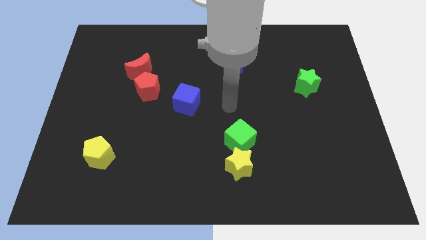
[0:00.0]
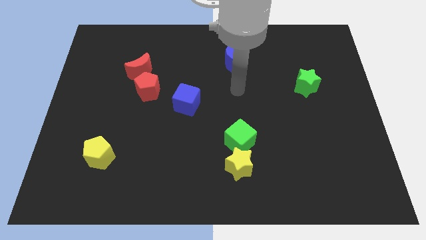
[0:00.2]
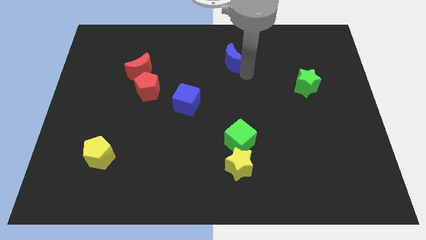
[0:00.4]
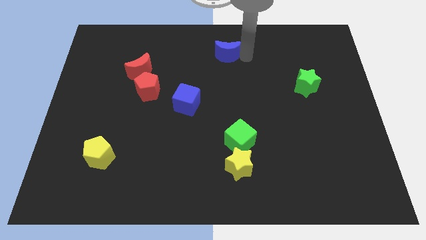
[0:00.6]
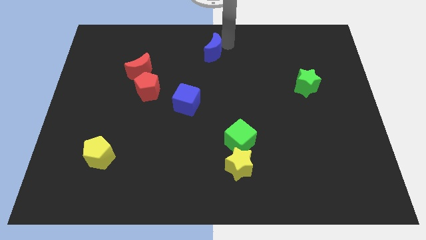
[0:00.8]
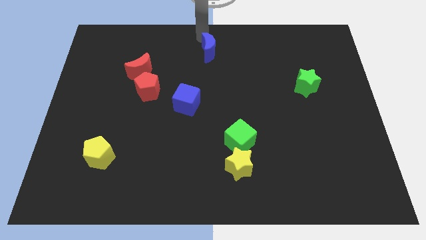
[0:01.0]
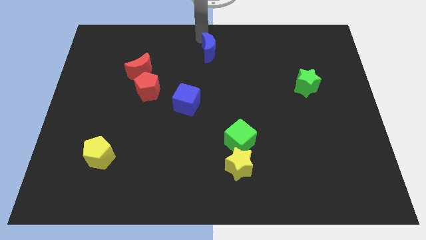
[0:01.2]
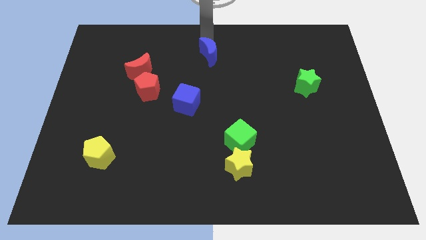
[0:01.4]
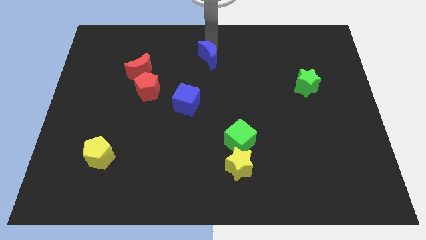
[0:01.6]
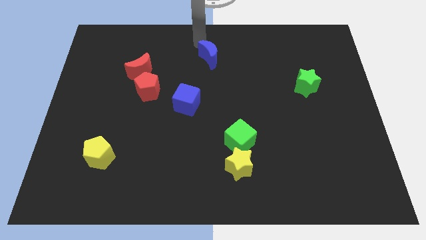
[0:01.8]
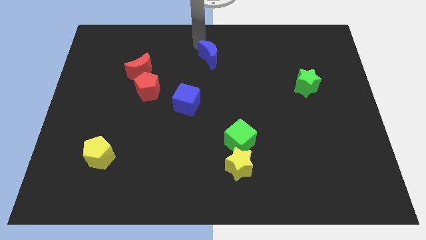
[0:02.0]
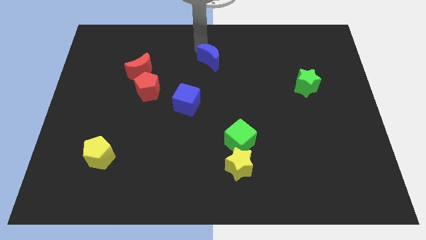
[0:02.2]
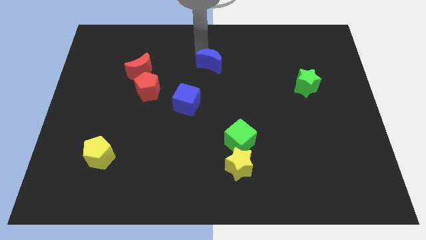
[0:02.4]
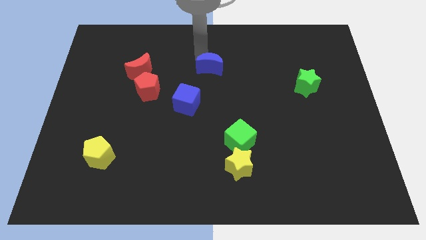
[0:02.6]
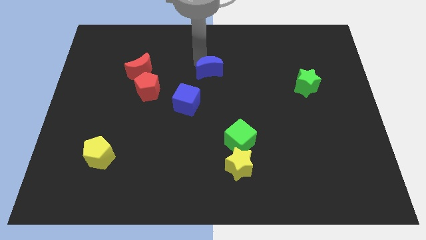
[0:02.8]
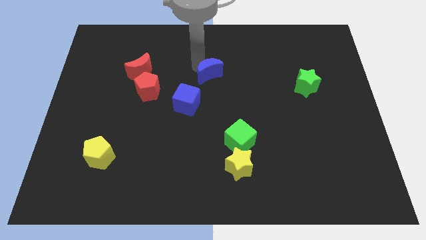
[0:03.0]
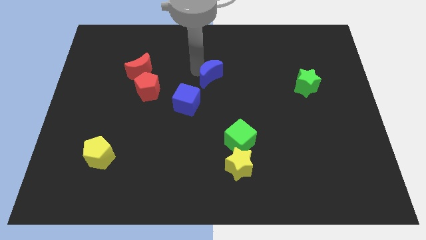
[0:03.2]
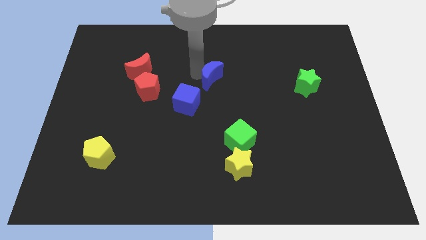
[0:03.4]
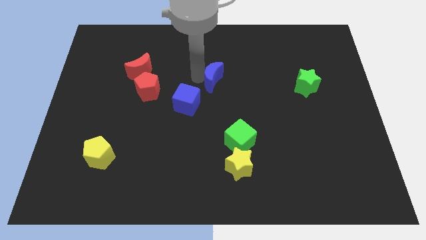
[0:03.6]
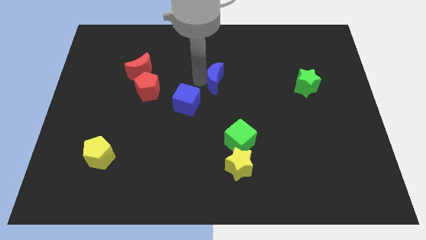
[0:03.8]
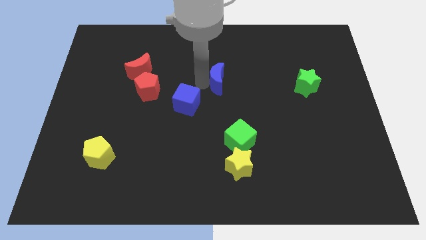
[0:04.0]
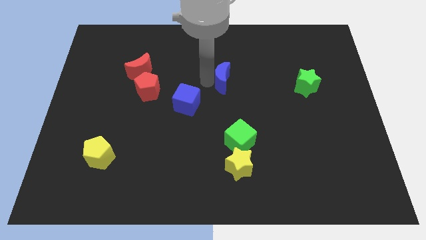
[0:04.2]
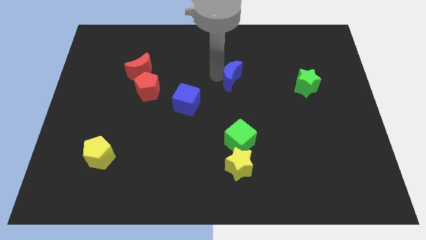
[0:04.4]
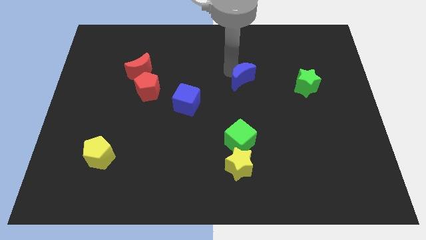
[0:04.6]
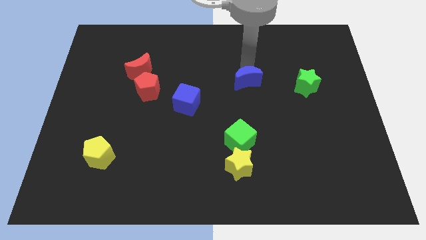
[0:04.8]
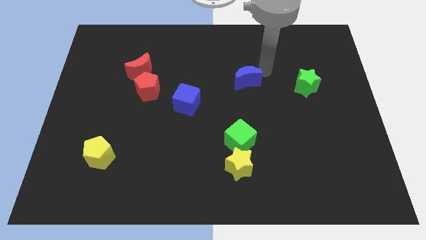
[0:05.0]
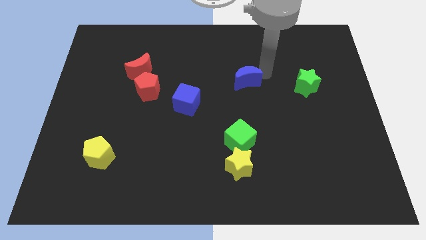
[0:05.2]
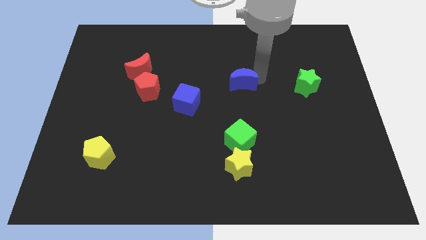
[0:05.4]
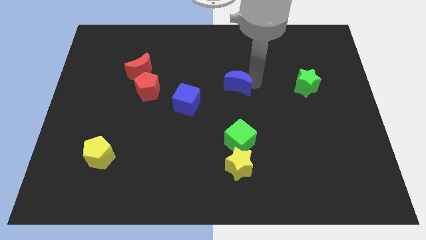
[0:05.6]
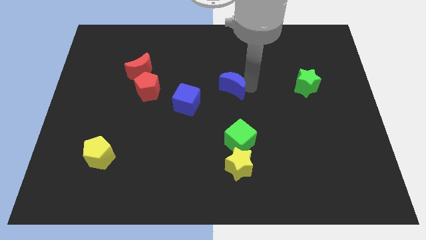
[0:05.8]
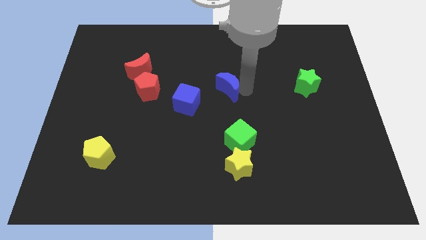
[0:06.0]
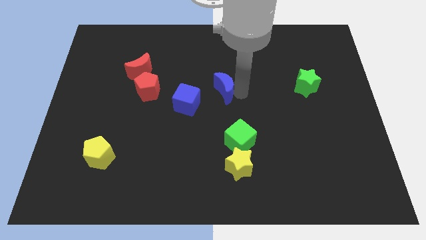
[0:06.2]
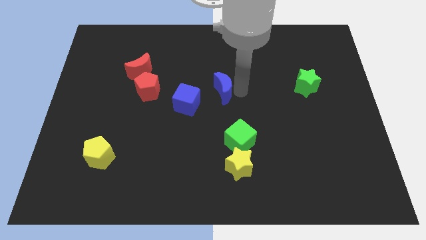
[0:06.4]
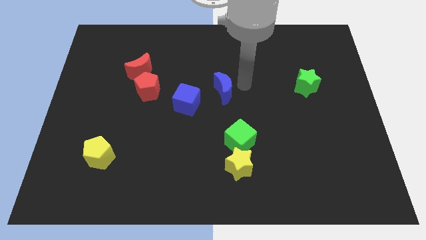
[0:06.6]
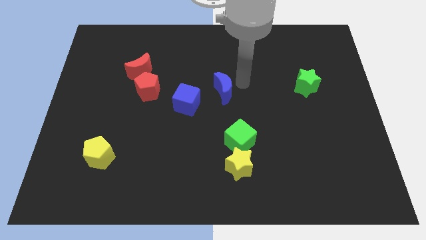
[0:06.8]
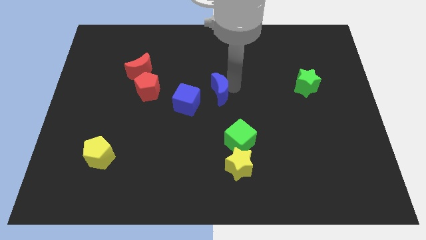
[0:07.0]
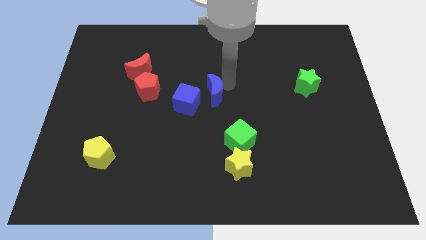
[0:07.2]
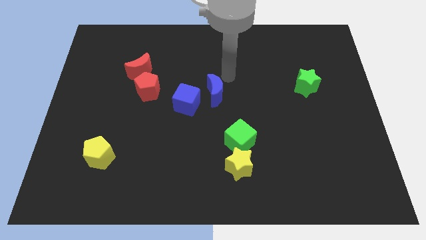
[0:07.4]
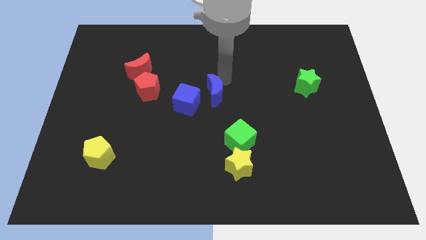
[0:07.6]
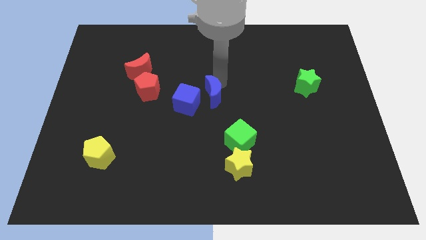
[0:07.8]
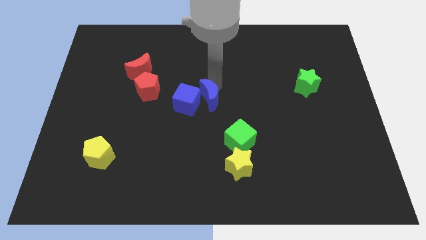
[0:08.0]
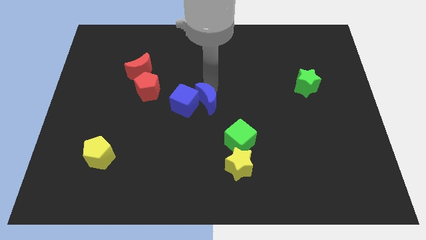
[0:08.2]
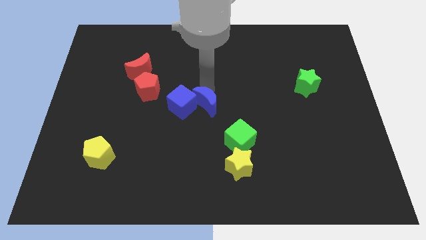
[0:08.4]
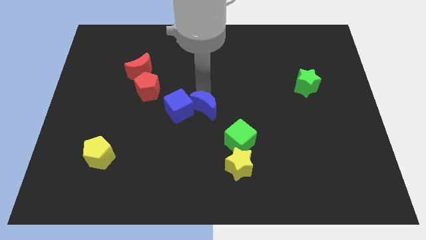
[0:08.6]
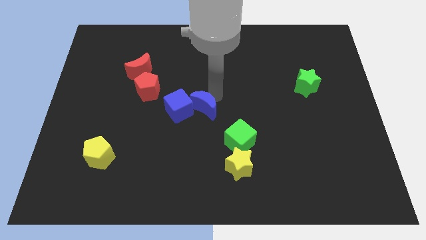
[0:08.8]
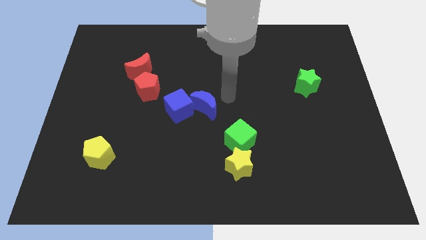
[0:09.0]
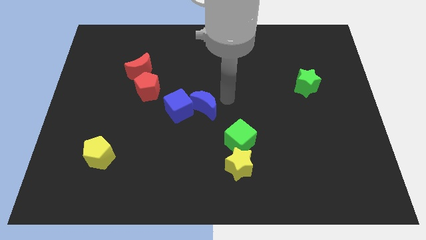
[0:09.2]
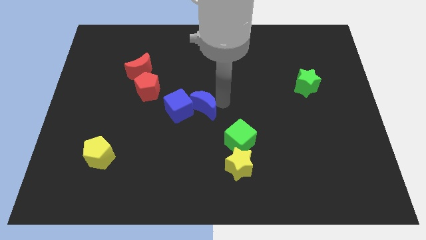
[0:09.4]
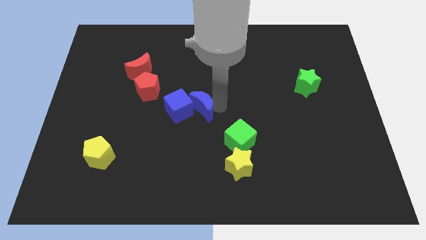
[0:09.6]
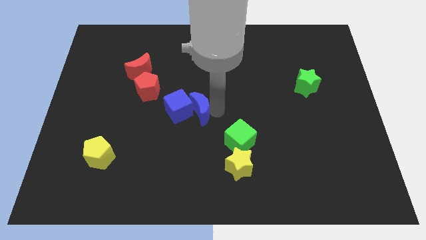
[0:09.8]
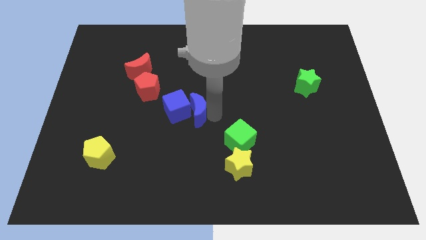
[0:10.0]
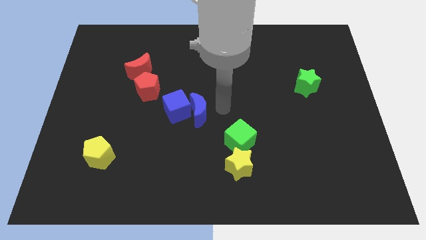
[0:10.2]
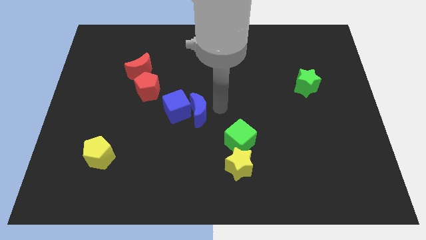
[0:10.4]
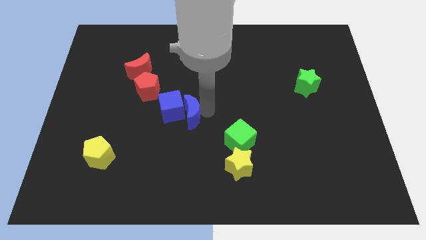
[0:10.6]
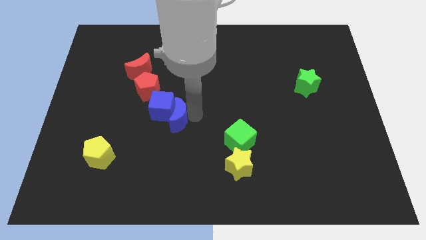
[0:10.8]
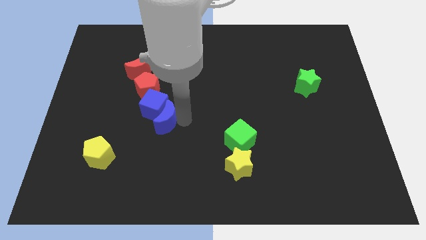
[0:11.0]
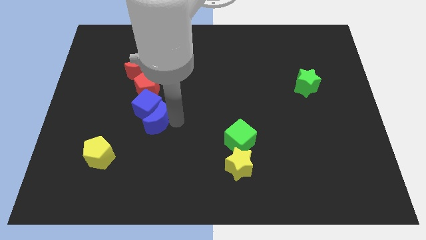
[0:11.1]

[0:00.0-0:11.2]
move the blue moon below the red pentagon

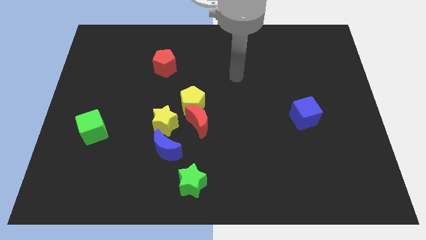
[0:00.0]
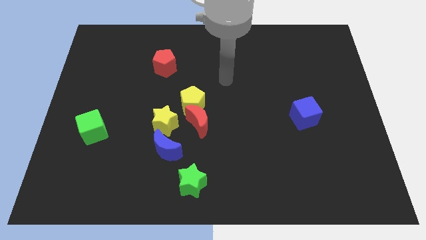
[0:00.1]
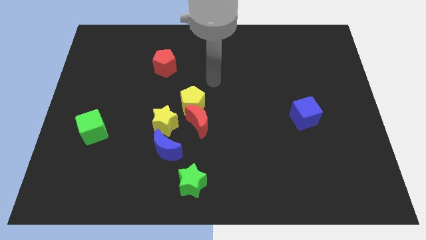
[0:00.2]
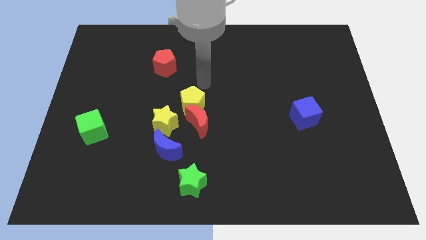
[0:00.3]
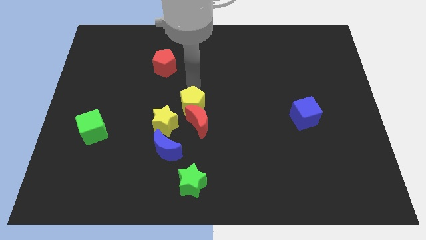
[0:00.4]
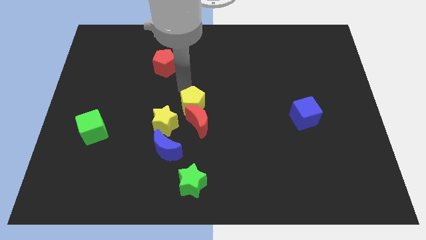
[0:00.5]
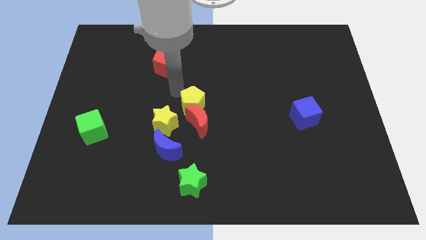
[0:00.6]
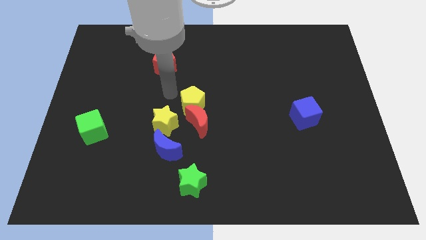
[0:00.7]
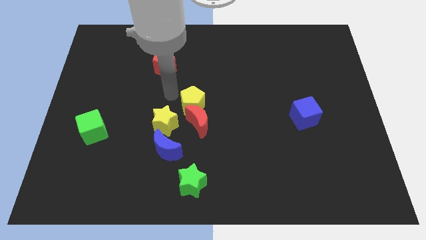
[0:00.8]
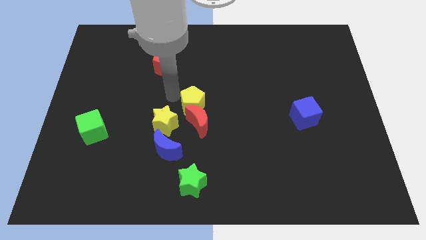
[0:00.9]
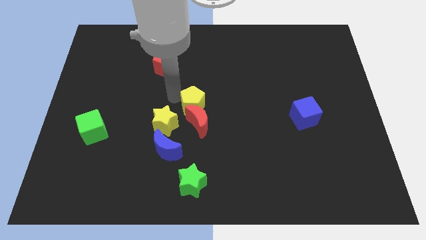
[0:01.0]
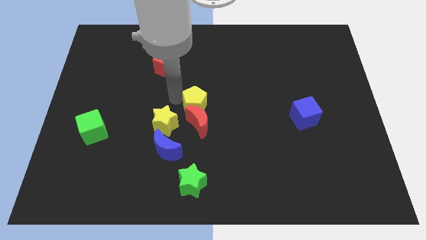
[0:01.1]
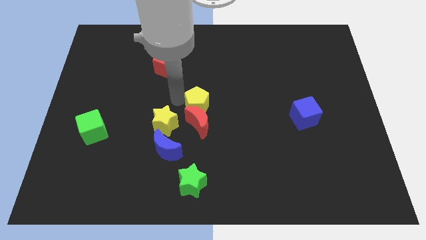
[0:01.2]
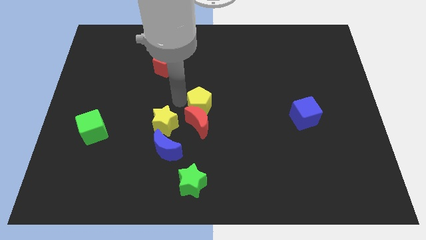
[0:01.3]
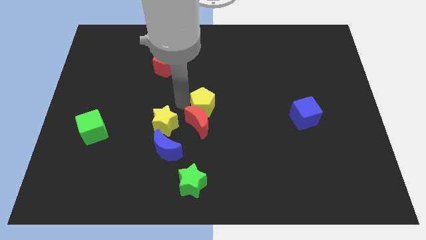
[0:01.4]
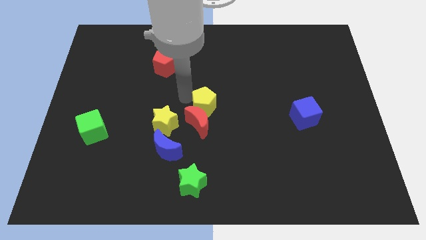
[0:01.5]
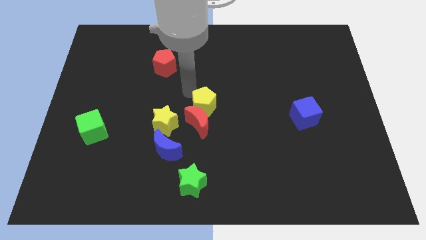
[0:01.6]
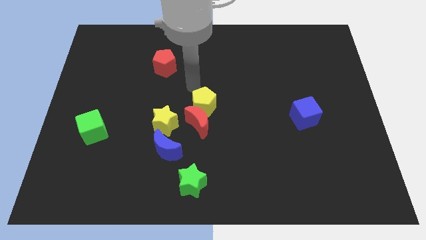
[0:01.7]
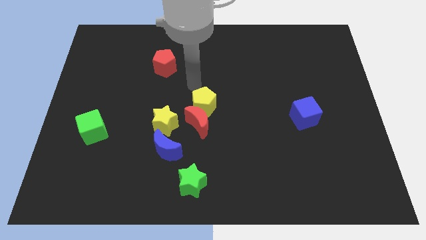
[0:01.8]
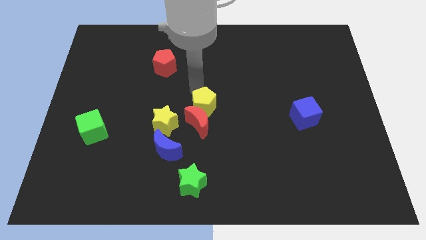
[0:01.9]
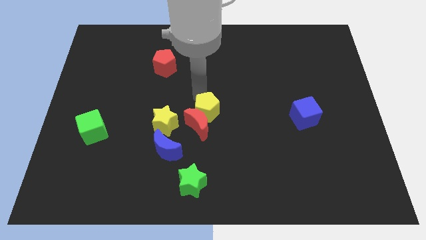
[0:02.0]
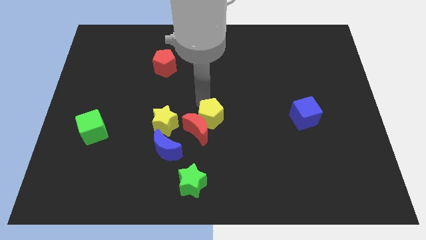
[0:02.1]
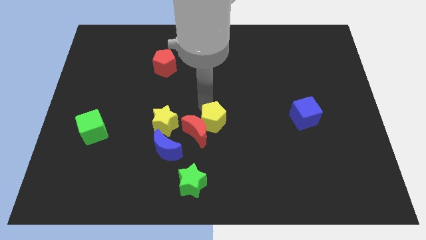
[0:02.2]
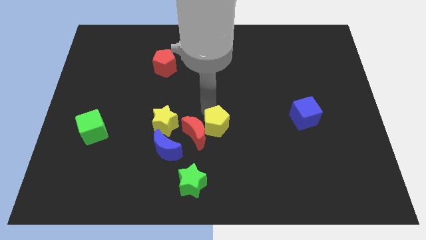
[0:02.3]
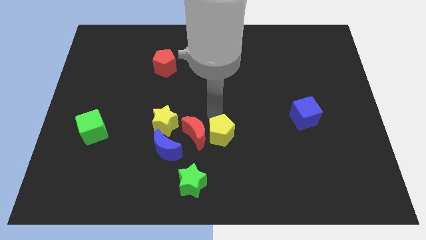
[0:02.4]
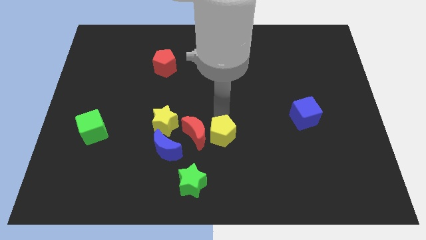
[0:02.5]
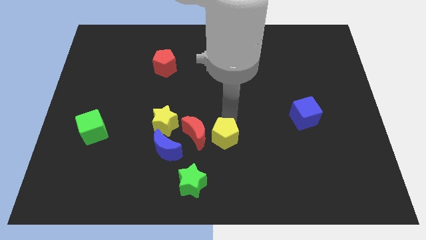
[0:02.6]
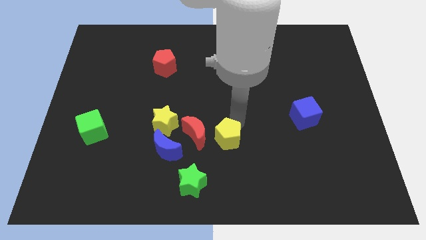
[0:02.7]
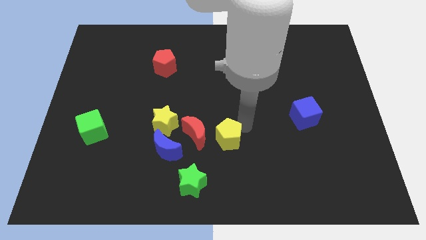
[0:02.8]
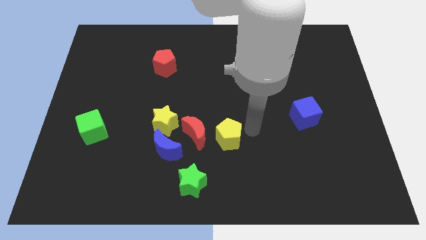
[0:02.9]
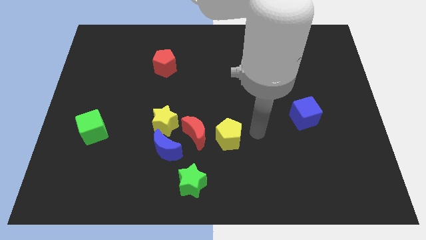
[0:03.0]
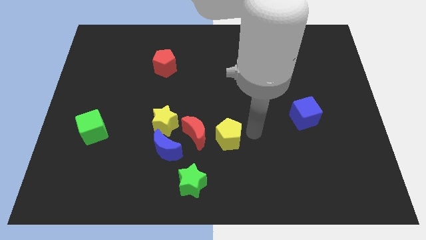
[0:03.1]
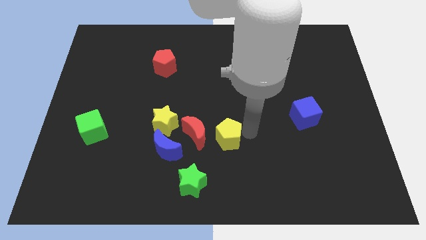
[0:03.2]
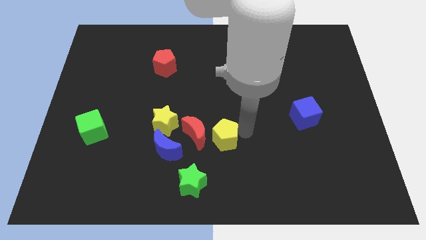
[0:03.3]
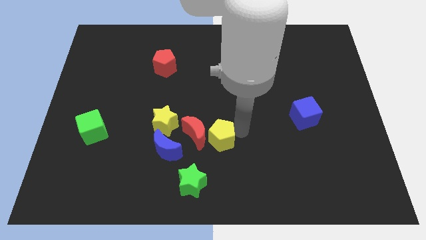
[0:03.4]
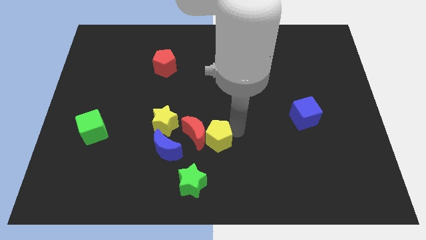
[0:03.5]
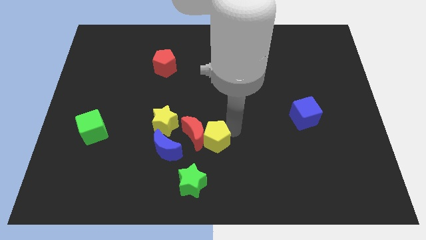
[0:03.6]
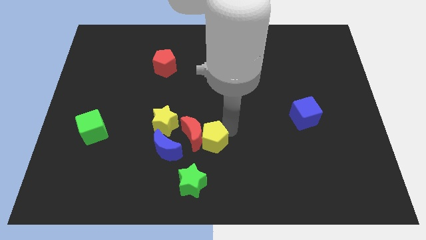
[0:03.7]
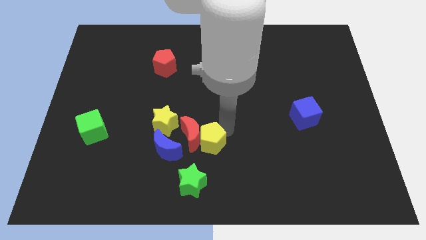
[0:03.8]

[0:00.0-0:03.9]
slide the yellow pentagon diagonally down and to the right of the yellow star
